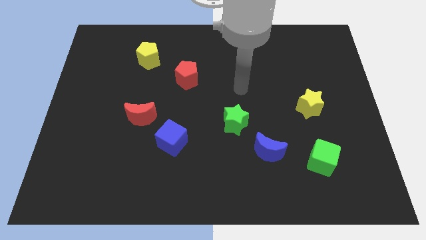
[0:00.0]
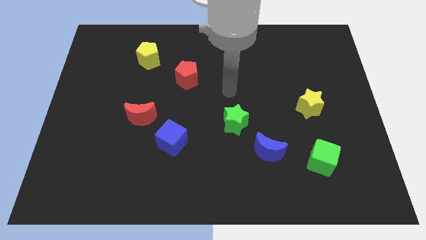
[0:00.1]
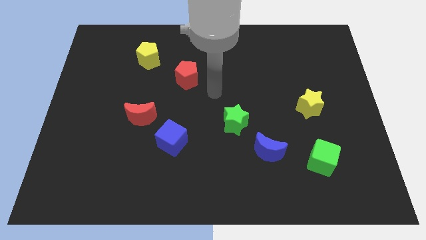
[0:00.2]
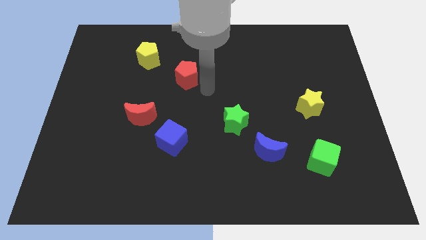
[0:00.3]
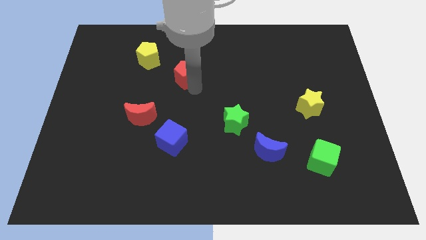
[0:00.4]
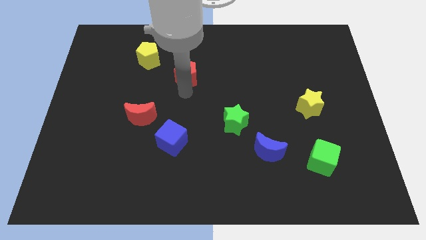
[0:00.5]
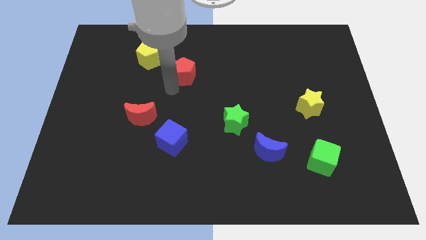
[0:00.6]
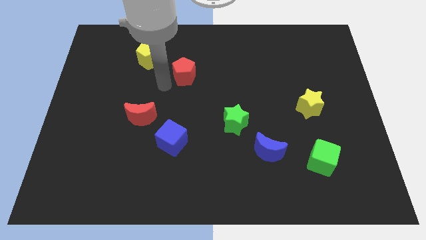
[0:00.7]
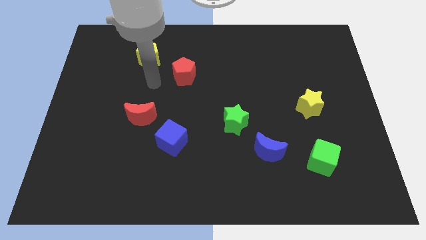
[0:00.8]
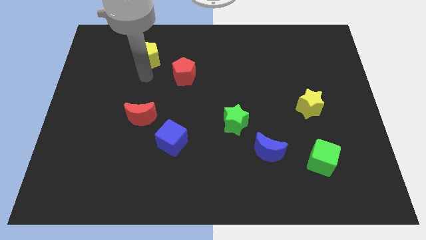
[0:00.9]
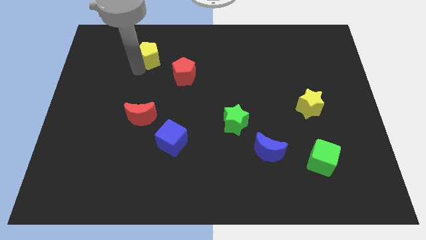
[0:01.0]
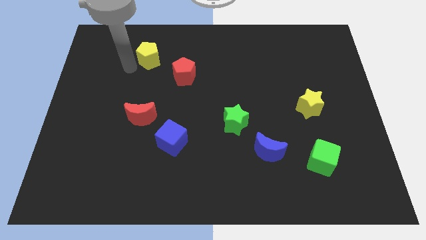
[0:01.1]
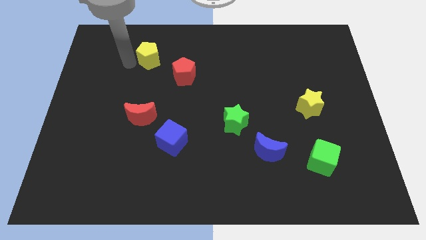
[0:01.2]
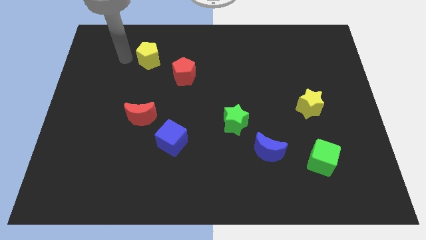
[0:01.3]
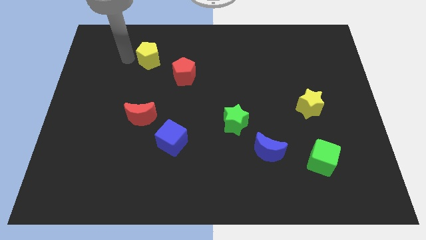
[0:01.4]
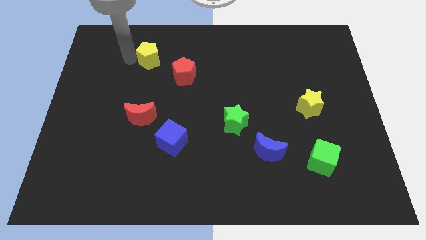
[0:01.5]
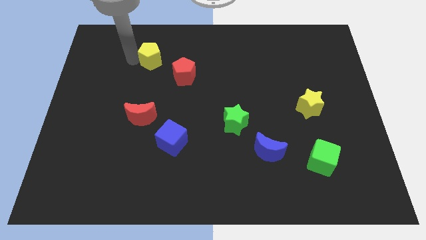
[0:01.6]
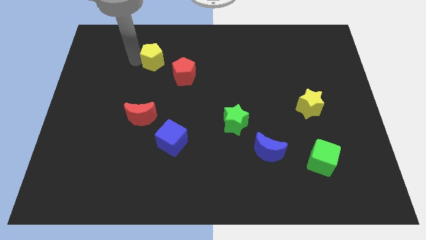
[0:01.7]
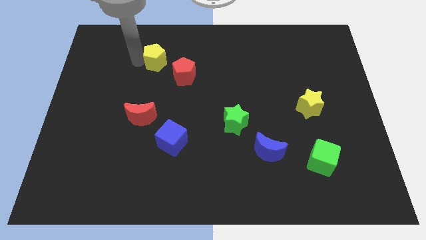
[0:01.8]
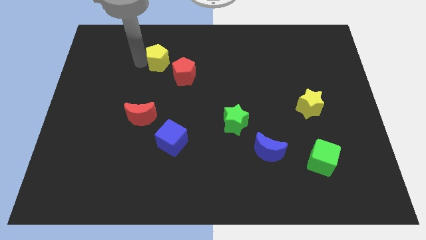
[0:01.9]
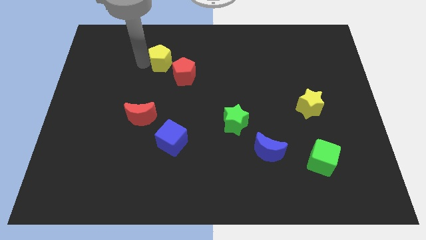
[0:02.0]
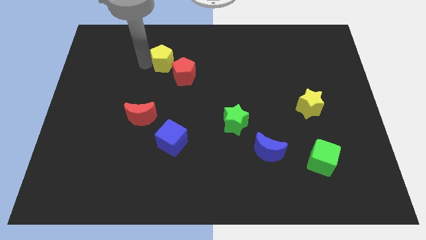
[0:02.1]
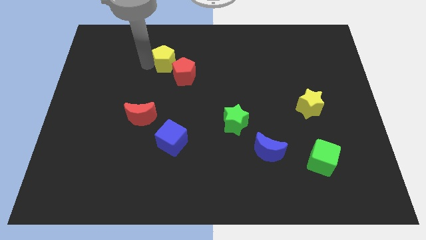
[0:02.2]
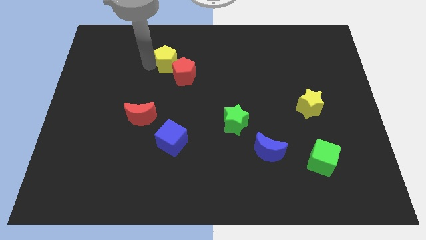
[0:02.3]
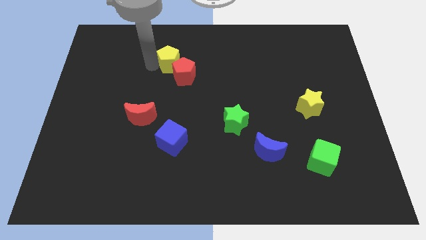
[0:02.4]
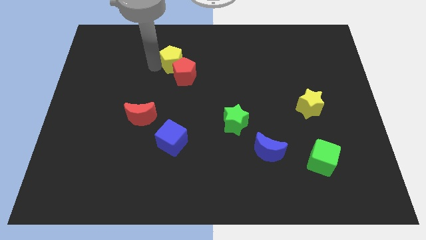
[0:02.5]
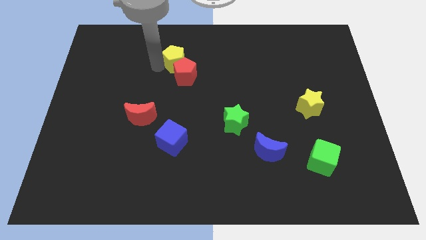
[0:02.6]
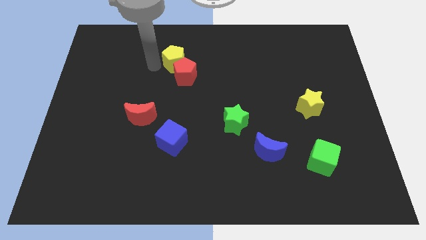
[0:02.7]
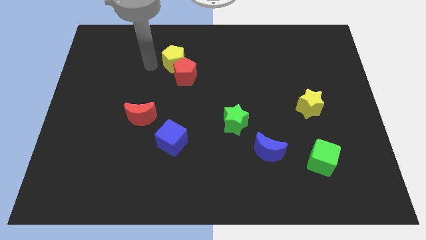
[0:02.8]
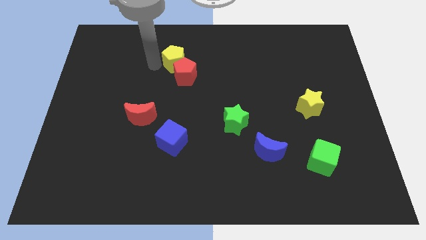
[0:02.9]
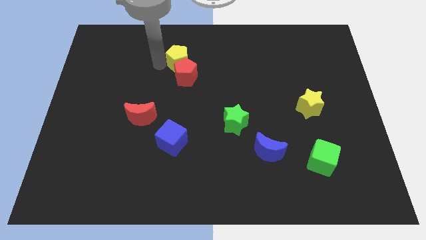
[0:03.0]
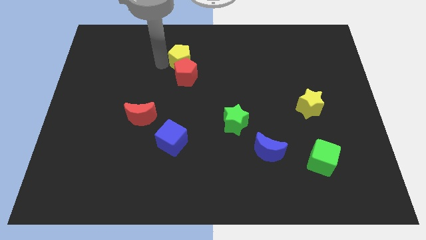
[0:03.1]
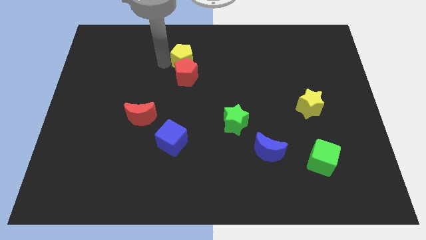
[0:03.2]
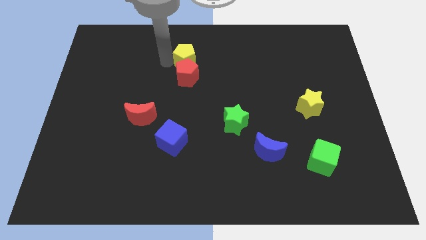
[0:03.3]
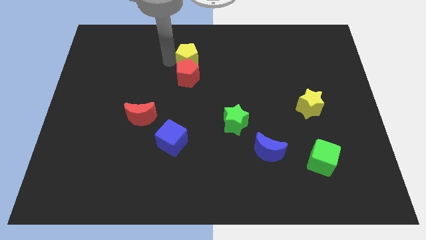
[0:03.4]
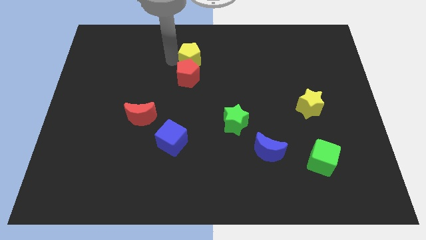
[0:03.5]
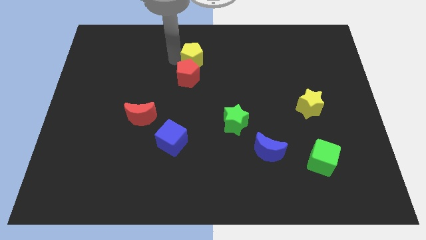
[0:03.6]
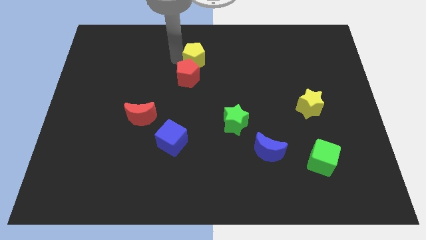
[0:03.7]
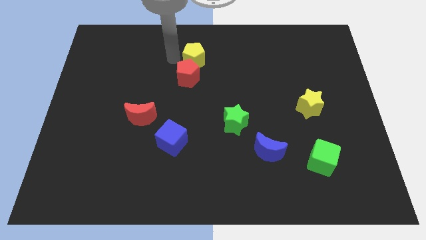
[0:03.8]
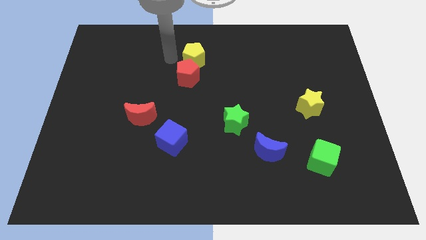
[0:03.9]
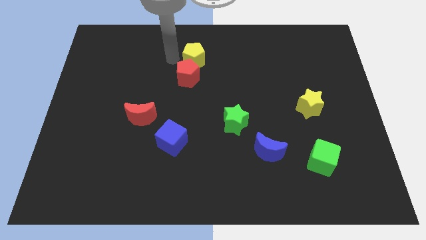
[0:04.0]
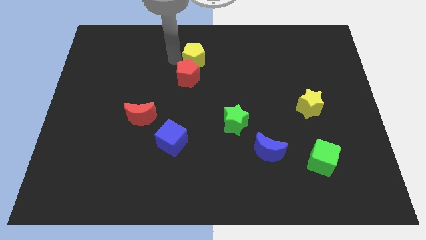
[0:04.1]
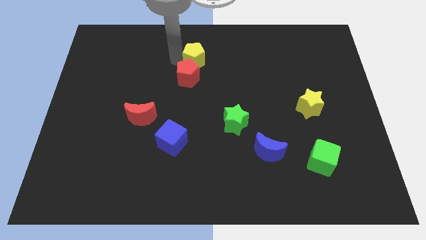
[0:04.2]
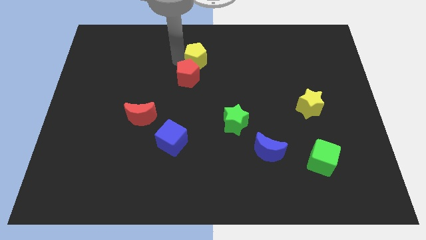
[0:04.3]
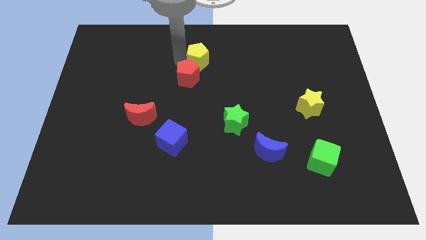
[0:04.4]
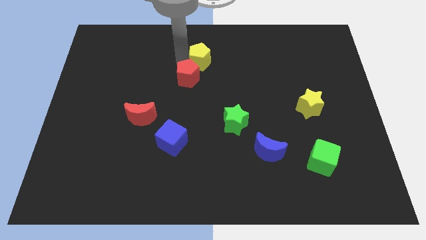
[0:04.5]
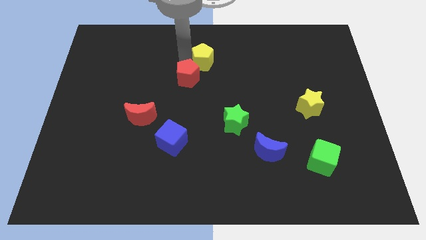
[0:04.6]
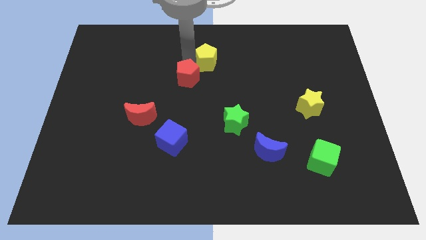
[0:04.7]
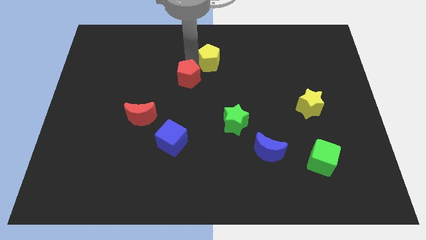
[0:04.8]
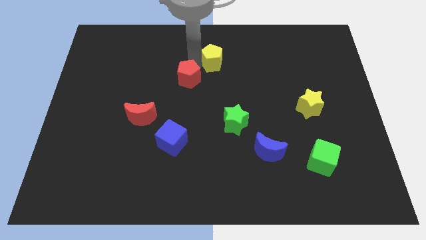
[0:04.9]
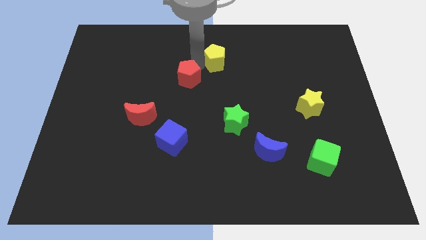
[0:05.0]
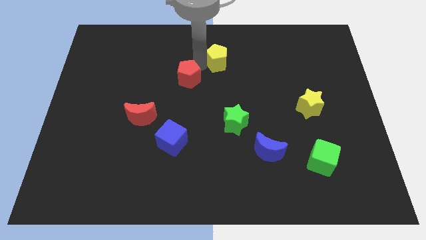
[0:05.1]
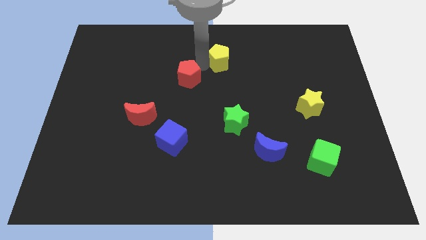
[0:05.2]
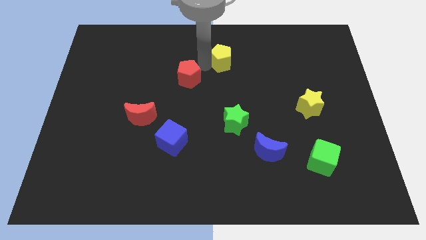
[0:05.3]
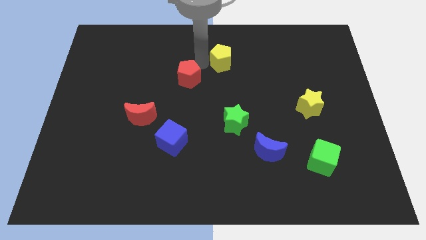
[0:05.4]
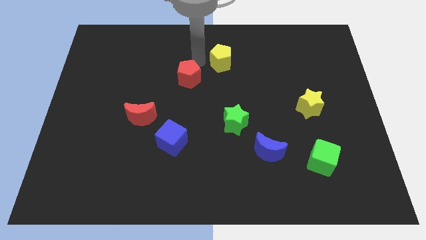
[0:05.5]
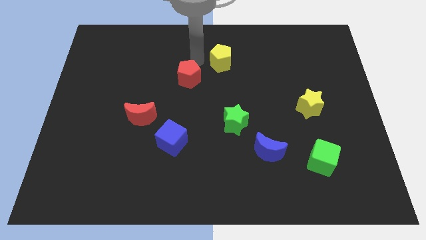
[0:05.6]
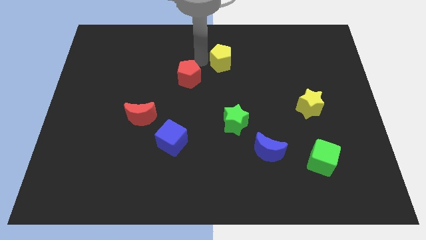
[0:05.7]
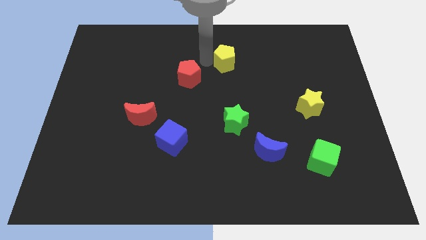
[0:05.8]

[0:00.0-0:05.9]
slide the yellow pentagon to the right

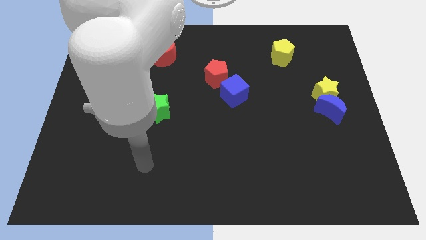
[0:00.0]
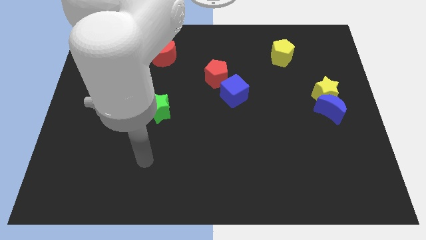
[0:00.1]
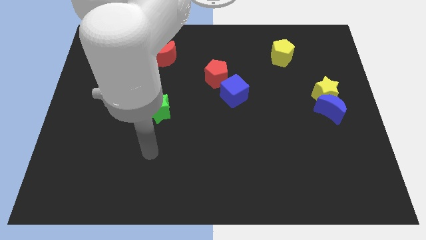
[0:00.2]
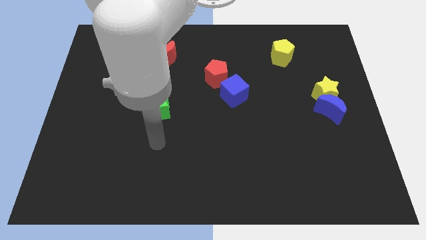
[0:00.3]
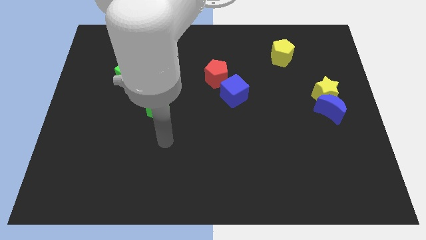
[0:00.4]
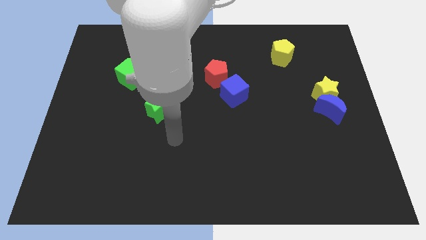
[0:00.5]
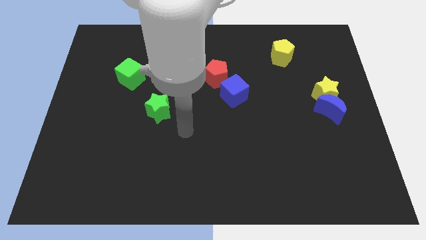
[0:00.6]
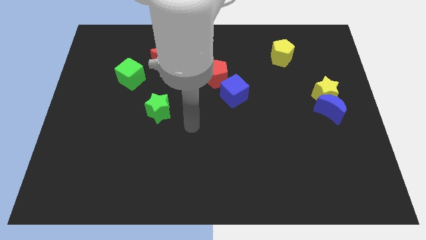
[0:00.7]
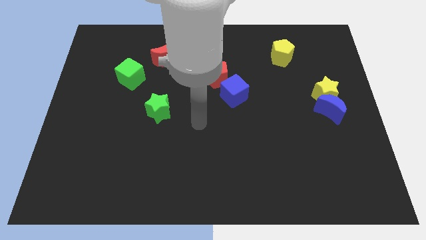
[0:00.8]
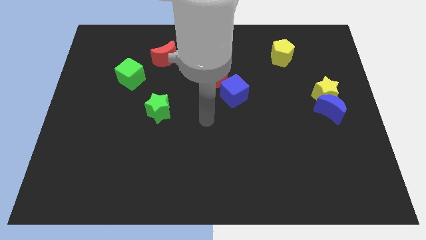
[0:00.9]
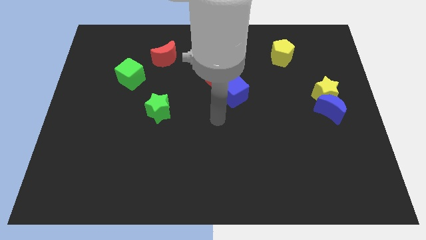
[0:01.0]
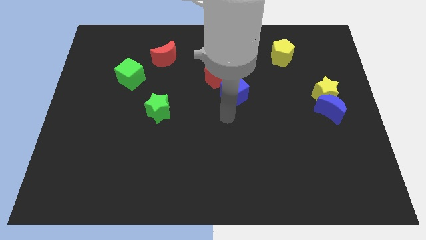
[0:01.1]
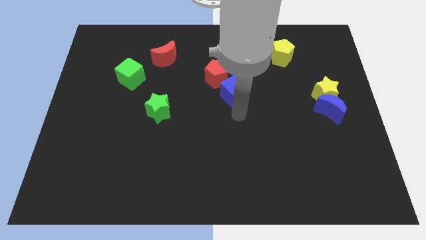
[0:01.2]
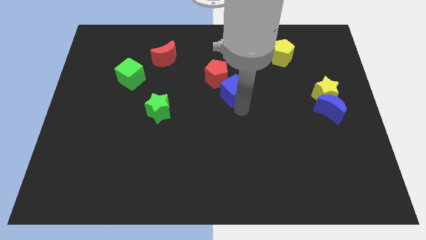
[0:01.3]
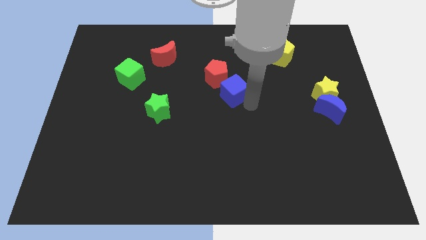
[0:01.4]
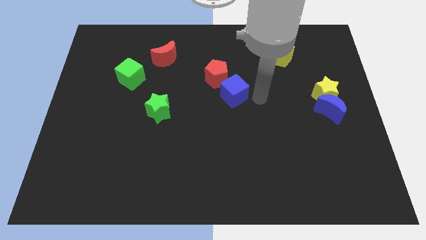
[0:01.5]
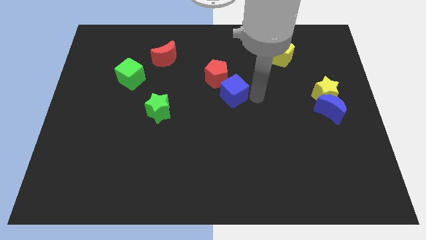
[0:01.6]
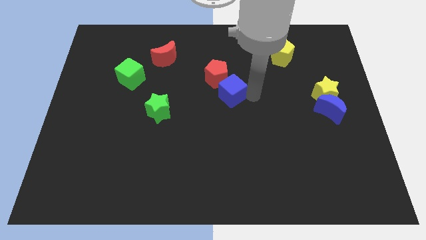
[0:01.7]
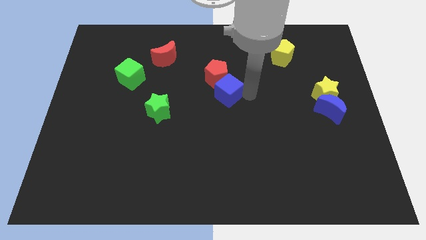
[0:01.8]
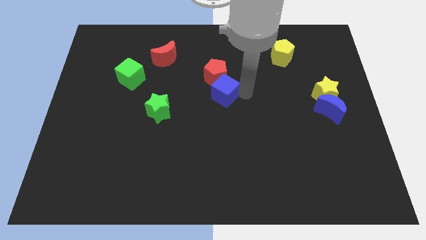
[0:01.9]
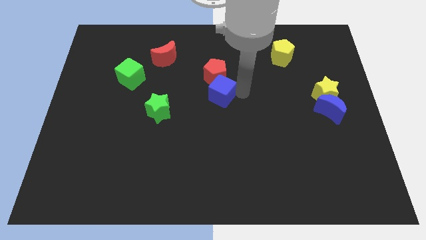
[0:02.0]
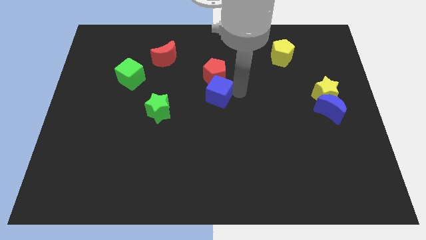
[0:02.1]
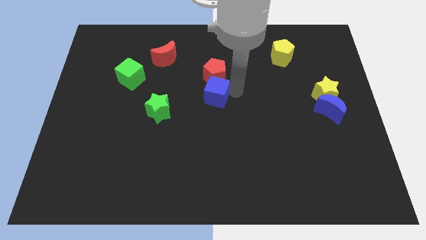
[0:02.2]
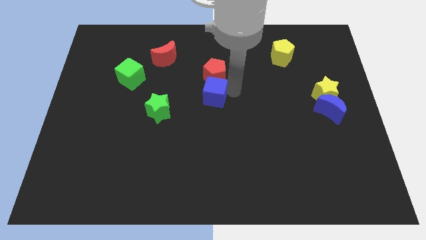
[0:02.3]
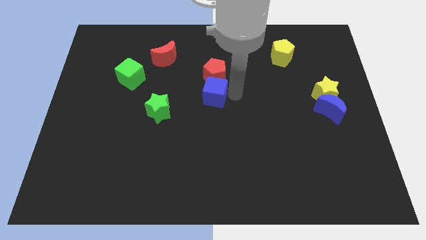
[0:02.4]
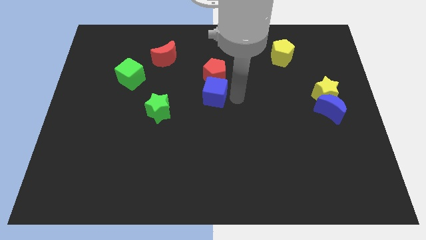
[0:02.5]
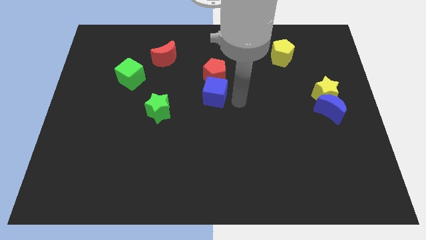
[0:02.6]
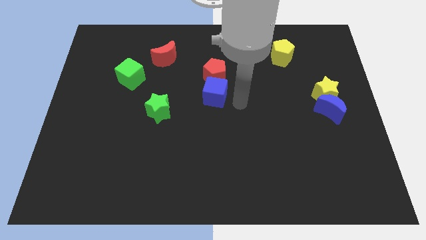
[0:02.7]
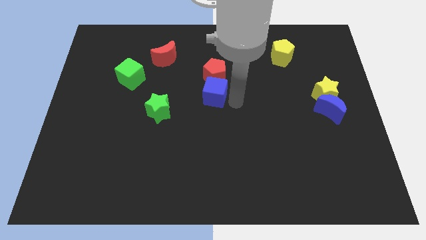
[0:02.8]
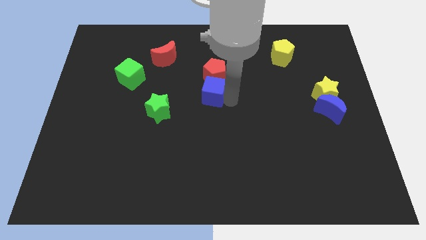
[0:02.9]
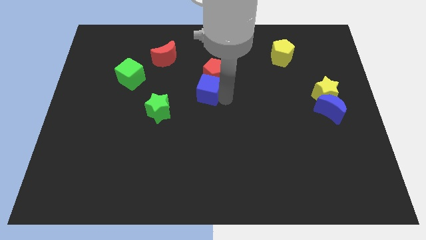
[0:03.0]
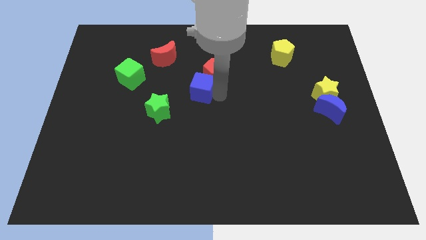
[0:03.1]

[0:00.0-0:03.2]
push the blue cube to the left a little
